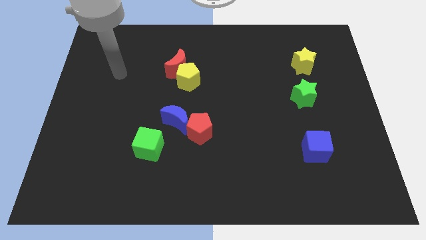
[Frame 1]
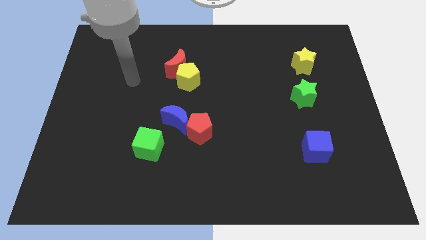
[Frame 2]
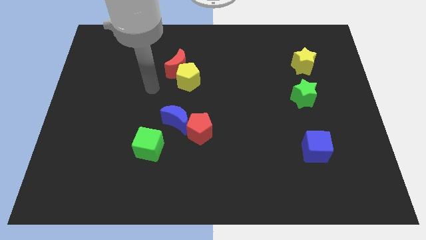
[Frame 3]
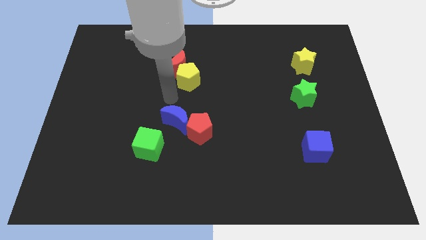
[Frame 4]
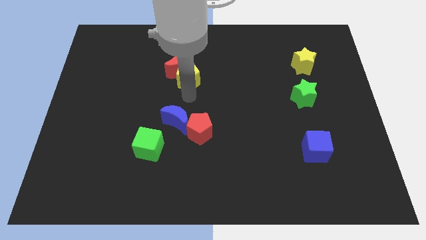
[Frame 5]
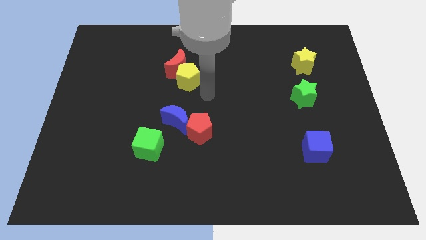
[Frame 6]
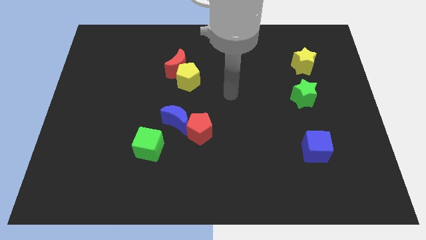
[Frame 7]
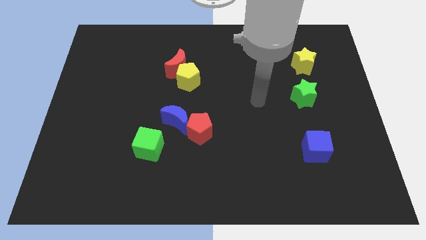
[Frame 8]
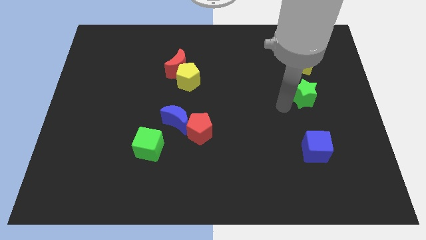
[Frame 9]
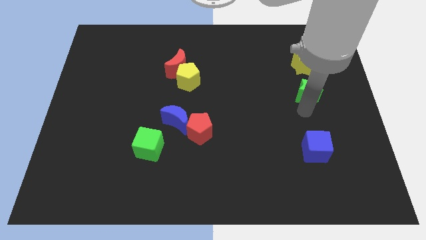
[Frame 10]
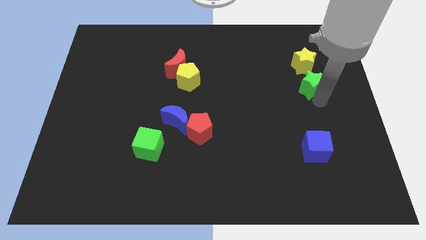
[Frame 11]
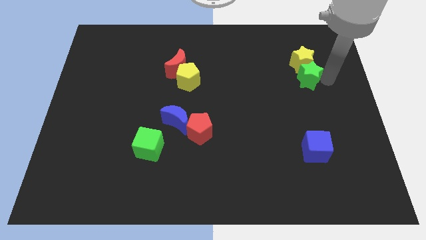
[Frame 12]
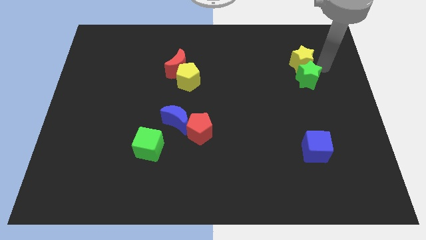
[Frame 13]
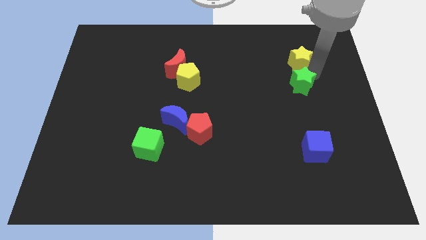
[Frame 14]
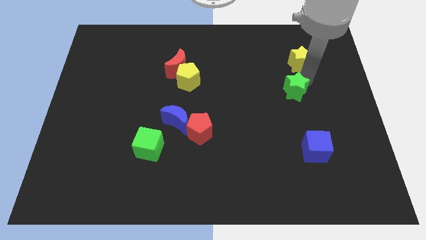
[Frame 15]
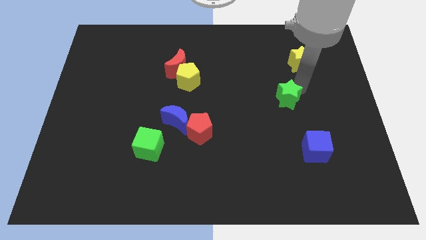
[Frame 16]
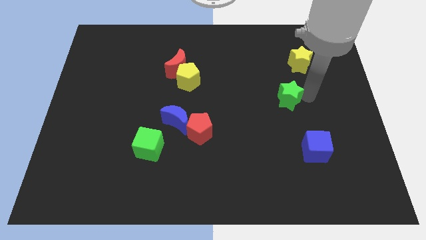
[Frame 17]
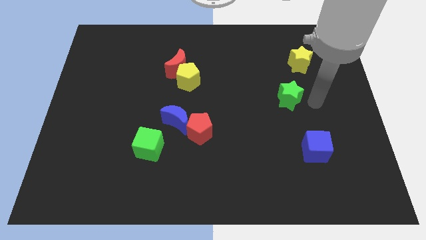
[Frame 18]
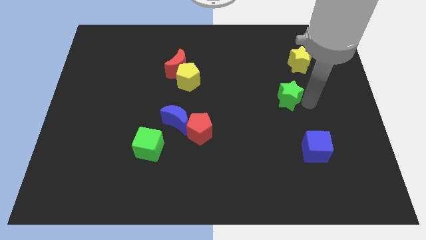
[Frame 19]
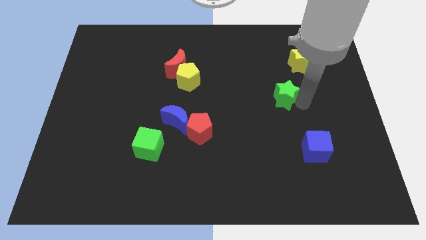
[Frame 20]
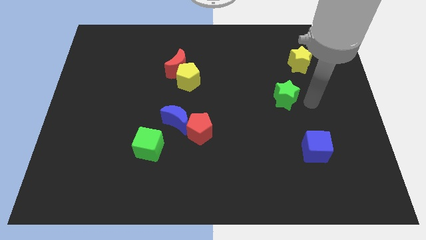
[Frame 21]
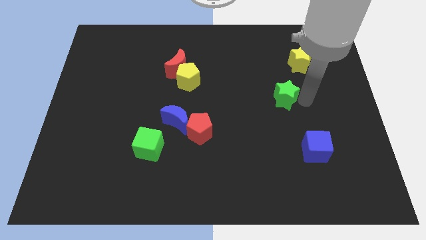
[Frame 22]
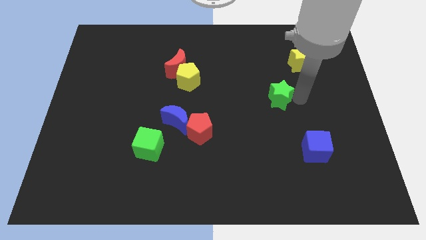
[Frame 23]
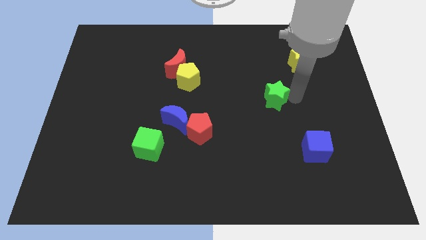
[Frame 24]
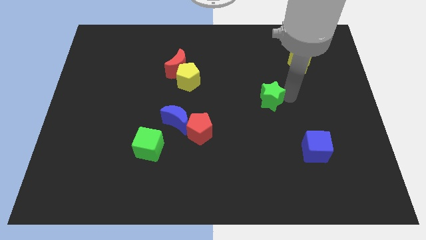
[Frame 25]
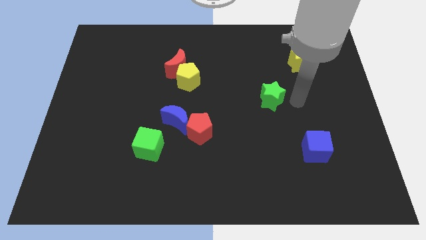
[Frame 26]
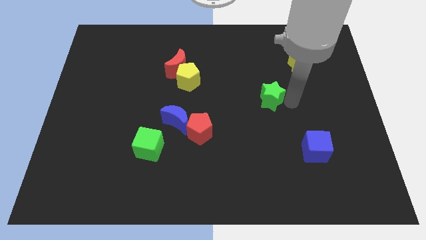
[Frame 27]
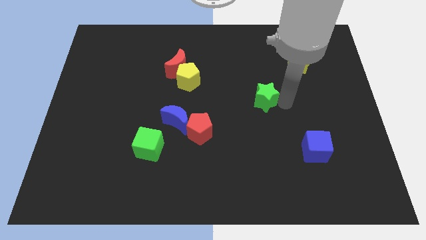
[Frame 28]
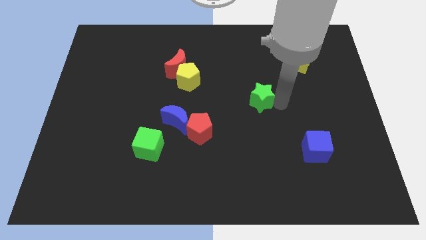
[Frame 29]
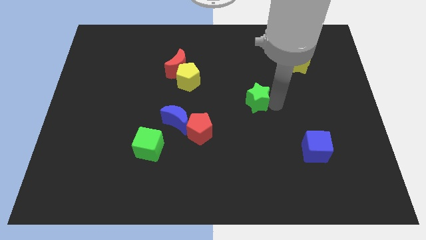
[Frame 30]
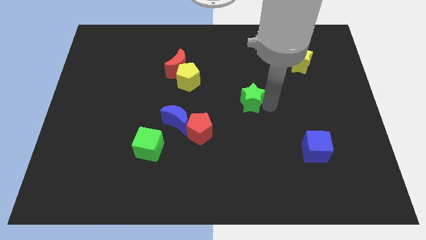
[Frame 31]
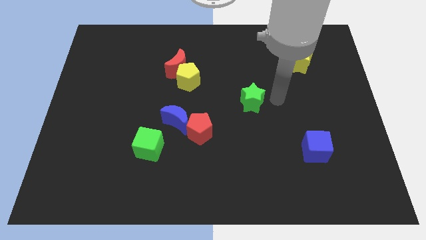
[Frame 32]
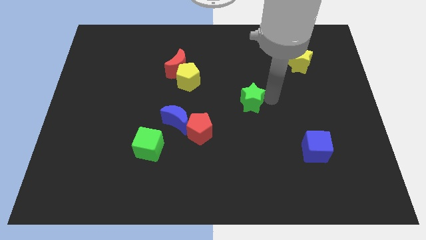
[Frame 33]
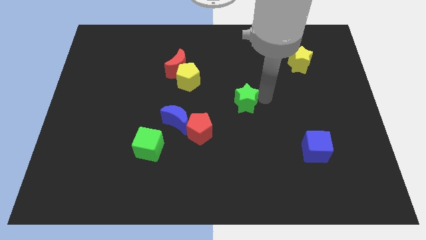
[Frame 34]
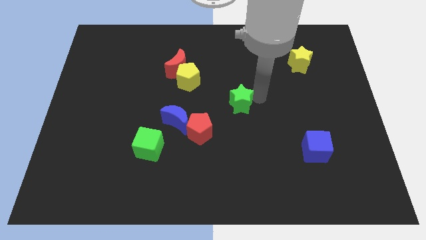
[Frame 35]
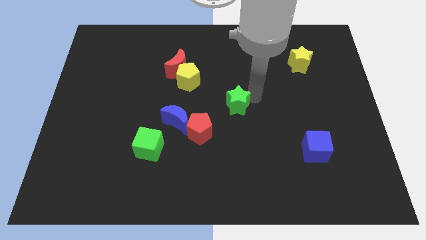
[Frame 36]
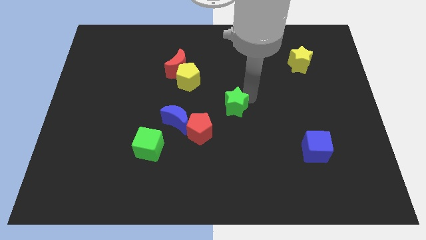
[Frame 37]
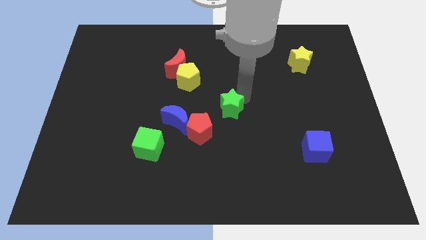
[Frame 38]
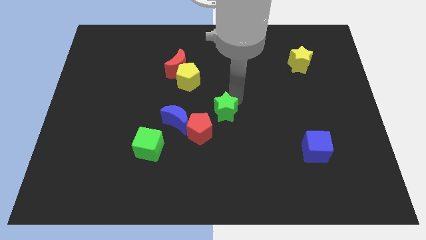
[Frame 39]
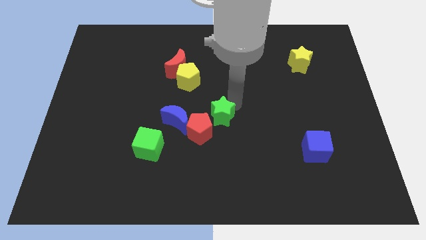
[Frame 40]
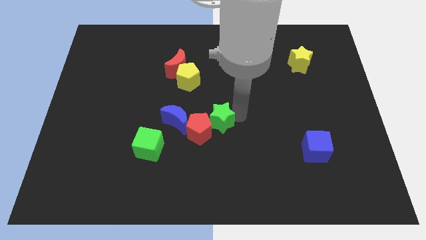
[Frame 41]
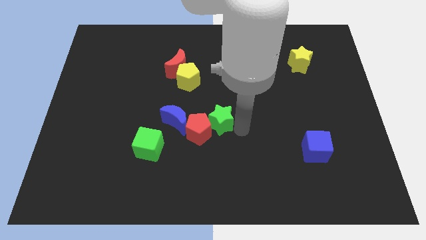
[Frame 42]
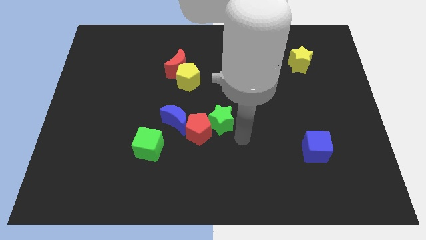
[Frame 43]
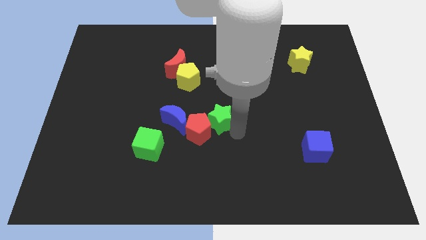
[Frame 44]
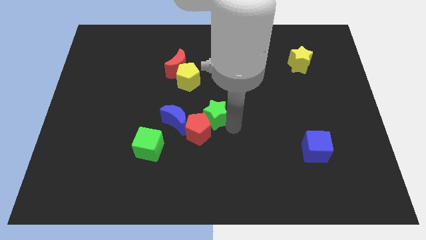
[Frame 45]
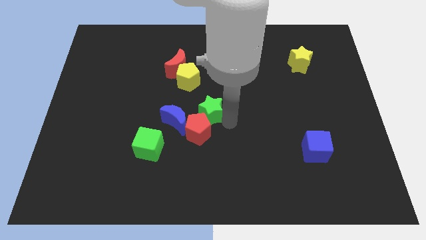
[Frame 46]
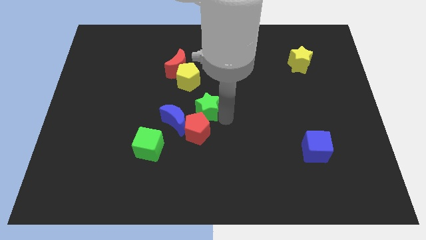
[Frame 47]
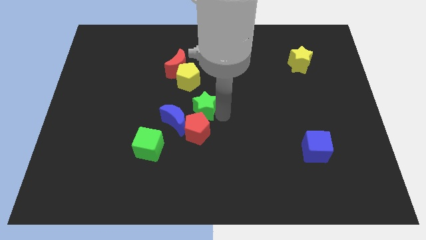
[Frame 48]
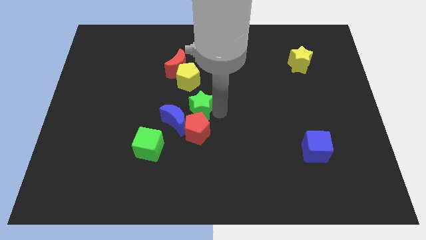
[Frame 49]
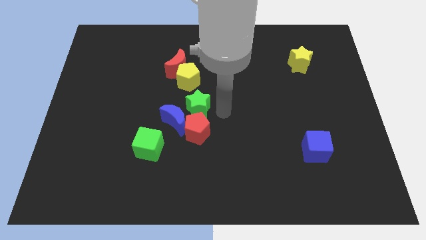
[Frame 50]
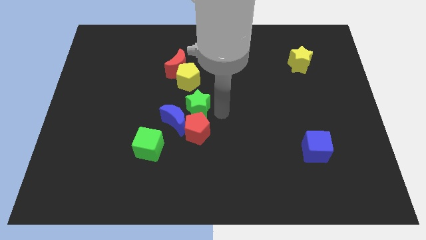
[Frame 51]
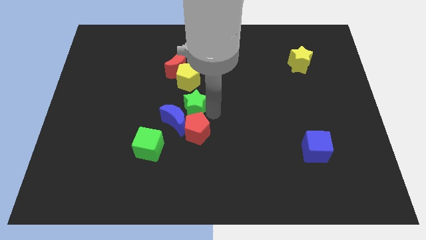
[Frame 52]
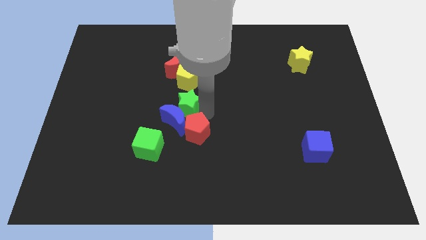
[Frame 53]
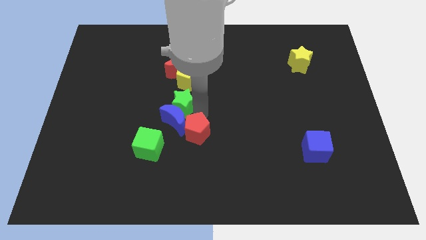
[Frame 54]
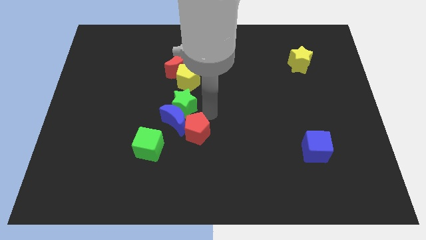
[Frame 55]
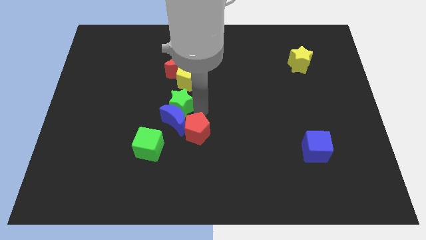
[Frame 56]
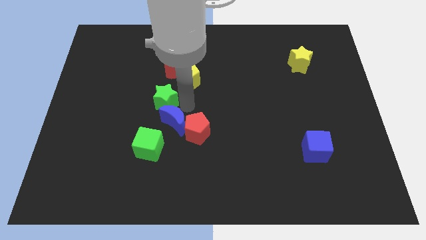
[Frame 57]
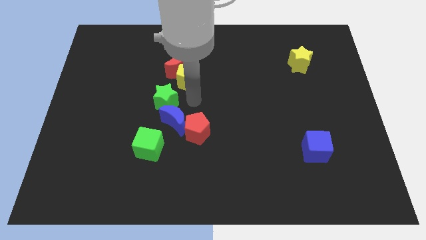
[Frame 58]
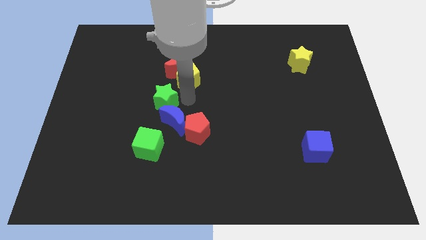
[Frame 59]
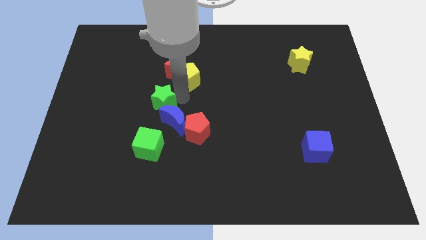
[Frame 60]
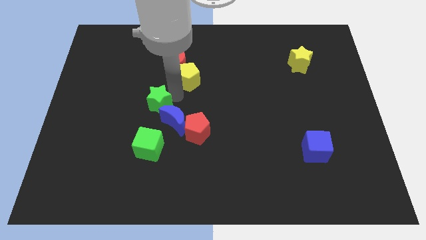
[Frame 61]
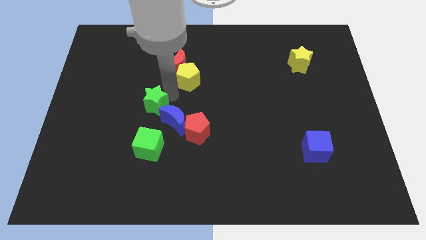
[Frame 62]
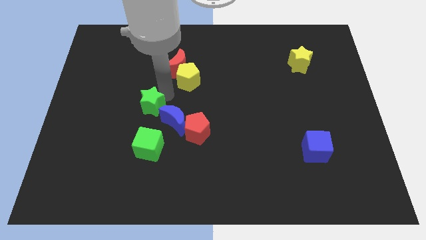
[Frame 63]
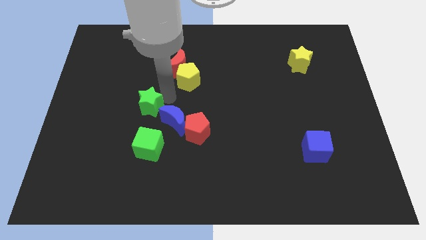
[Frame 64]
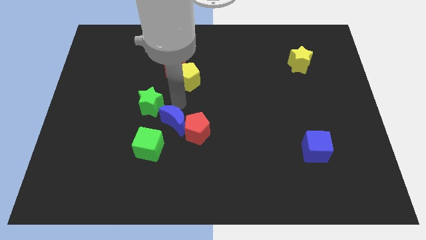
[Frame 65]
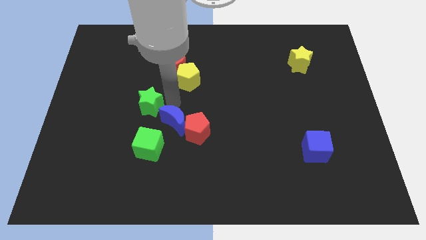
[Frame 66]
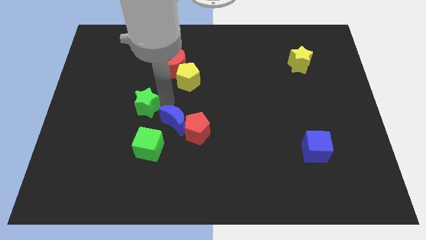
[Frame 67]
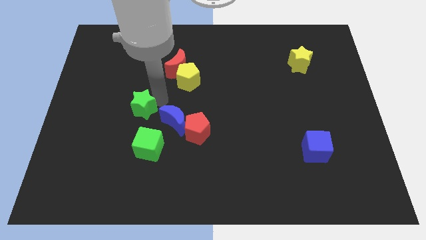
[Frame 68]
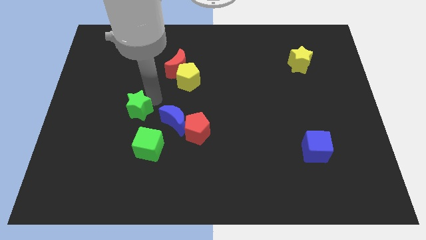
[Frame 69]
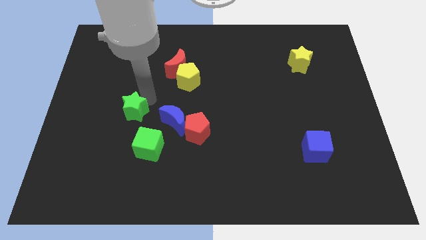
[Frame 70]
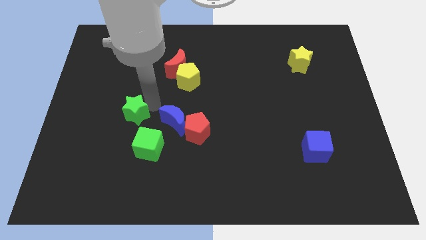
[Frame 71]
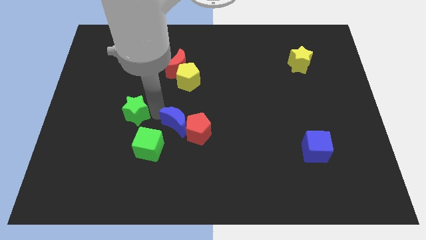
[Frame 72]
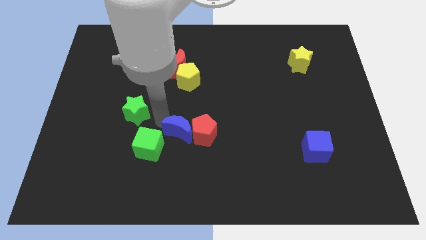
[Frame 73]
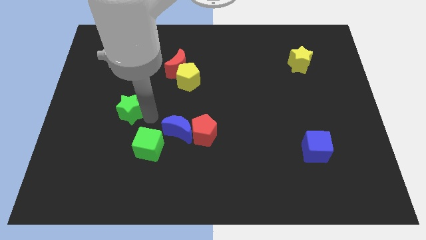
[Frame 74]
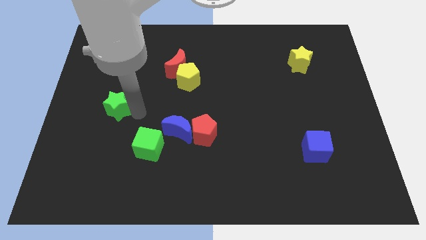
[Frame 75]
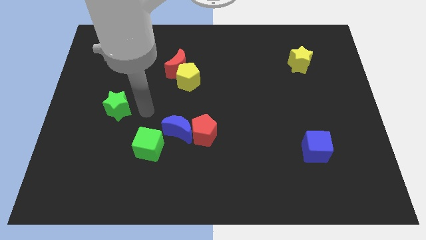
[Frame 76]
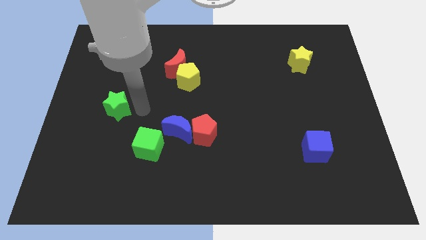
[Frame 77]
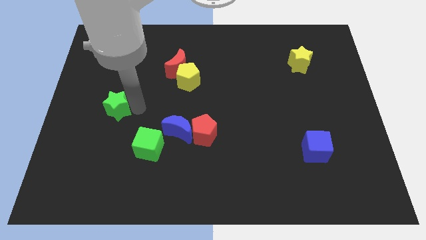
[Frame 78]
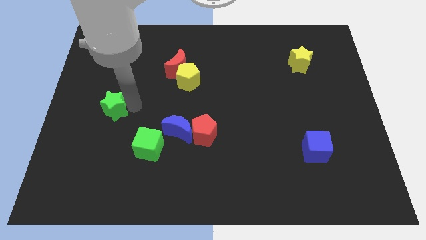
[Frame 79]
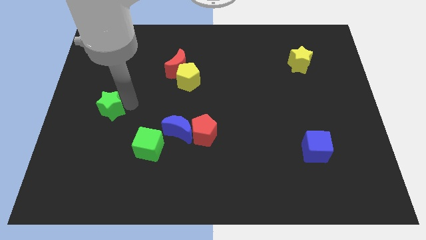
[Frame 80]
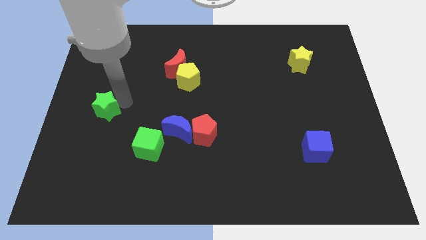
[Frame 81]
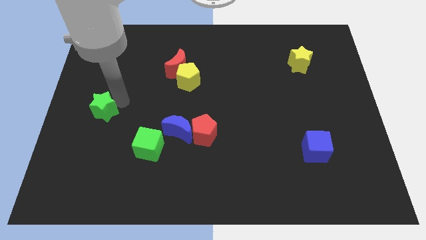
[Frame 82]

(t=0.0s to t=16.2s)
put the green star to the left side
